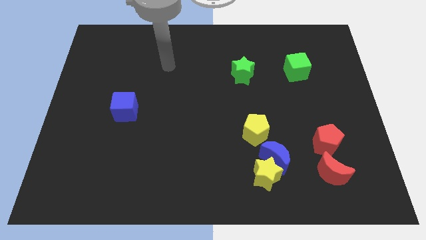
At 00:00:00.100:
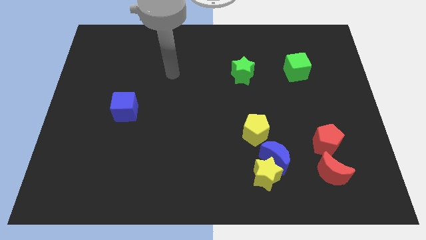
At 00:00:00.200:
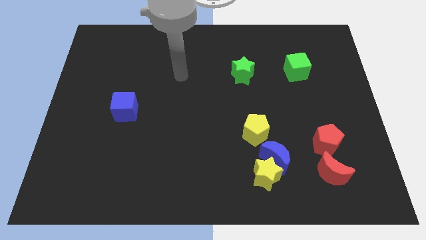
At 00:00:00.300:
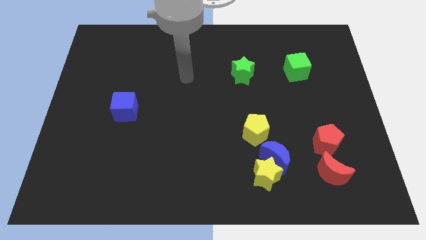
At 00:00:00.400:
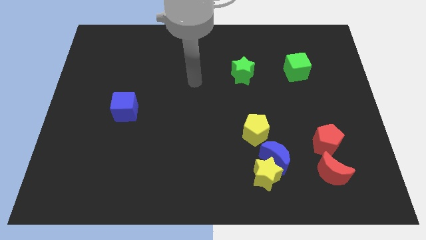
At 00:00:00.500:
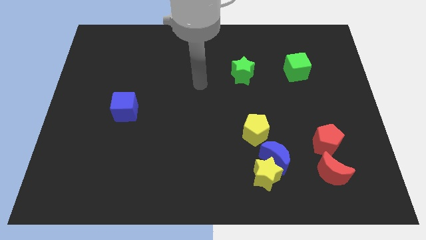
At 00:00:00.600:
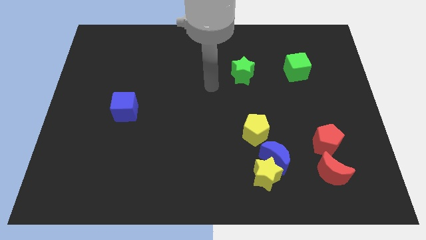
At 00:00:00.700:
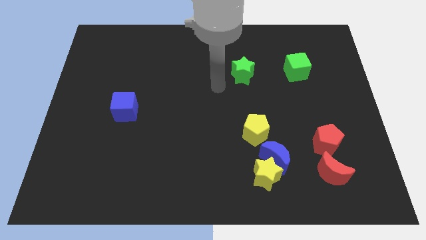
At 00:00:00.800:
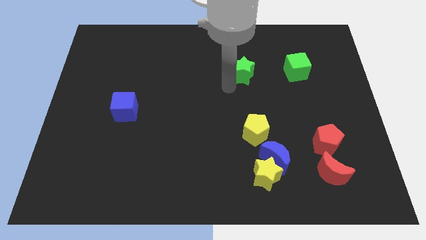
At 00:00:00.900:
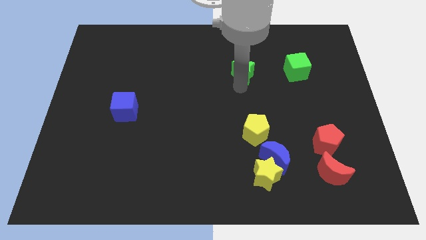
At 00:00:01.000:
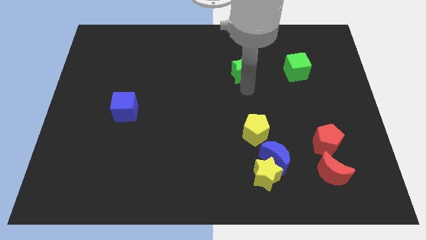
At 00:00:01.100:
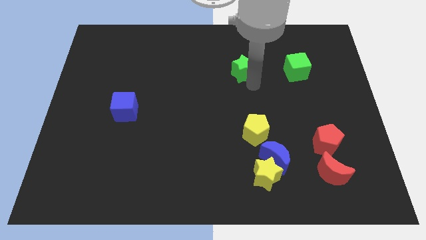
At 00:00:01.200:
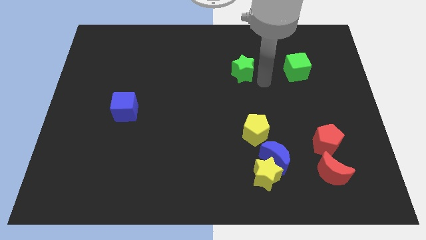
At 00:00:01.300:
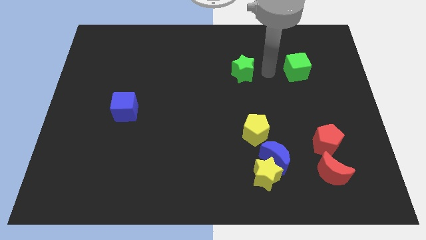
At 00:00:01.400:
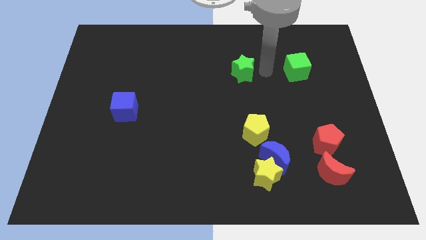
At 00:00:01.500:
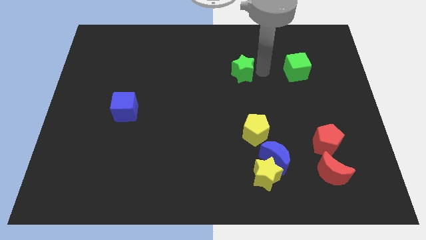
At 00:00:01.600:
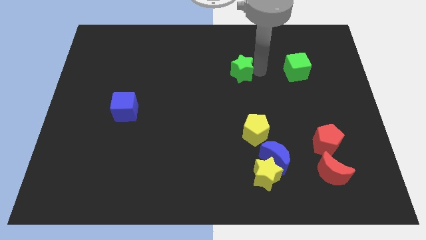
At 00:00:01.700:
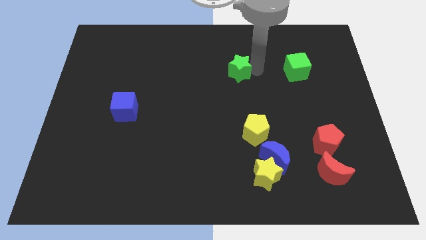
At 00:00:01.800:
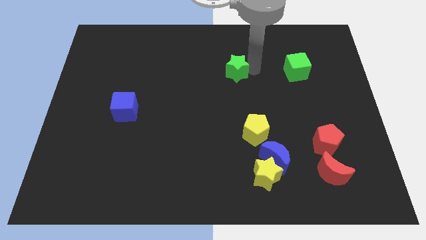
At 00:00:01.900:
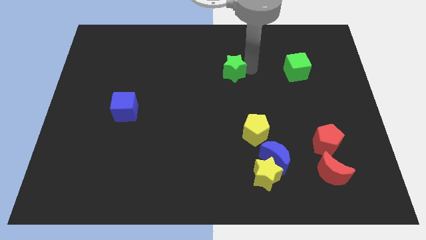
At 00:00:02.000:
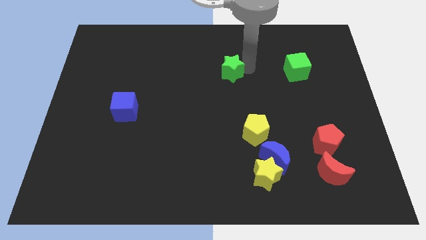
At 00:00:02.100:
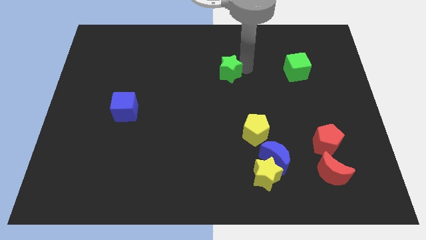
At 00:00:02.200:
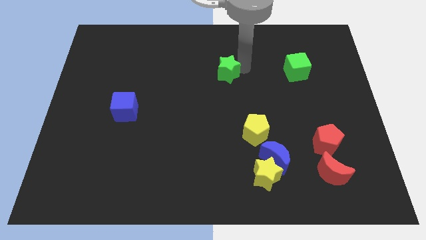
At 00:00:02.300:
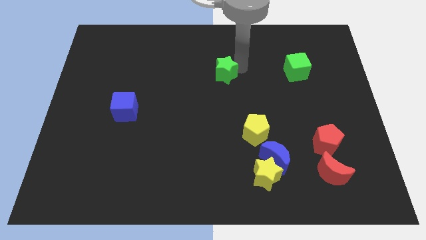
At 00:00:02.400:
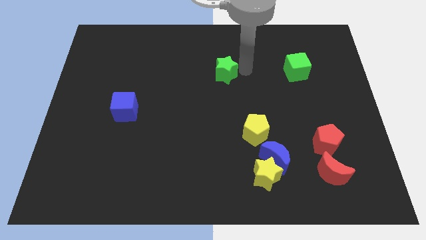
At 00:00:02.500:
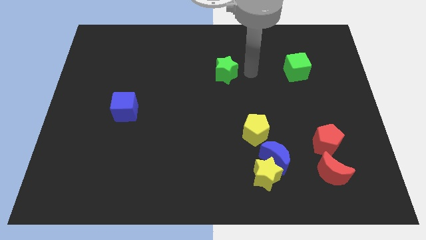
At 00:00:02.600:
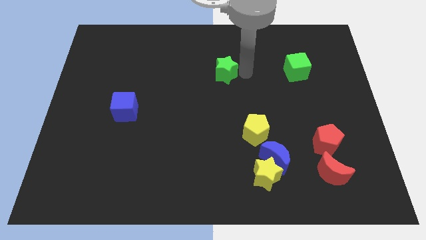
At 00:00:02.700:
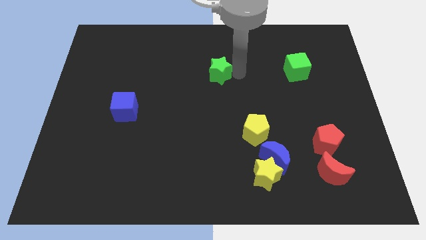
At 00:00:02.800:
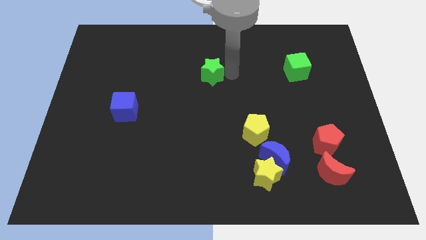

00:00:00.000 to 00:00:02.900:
slightly move the green star left

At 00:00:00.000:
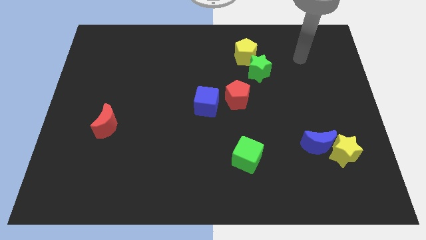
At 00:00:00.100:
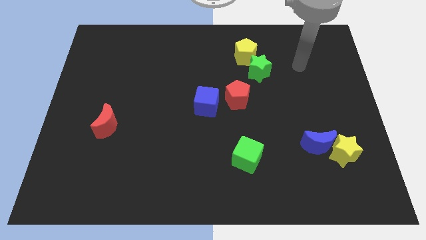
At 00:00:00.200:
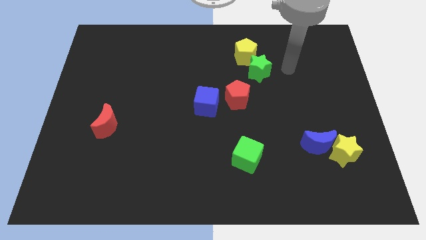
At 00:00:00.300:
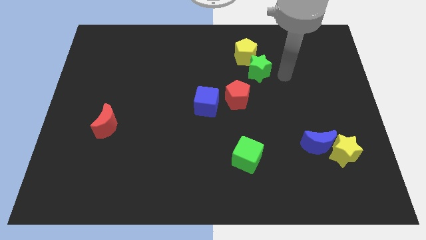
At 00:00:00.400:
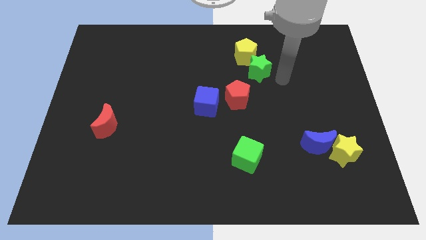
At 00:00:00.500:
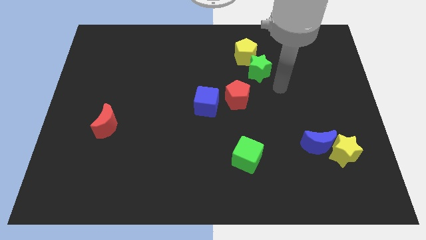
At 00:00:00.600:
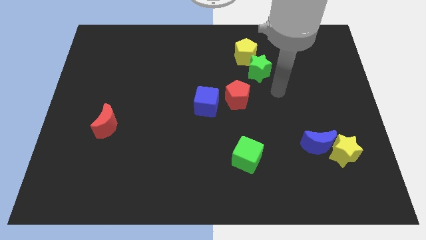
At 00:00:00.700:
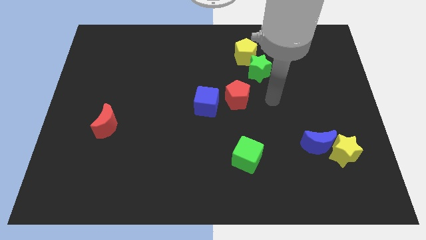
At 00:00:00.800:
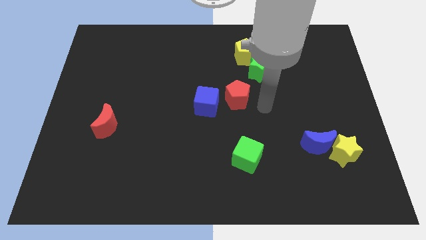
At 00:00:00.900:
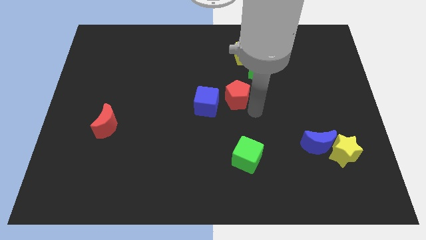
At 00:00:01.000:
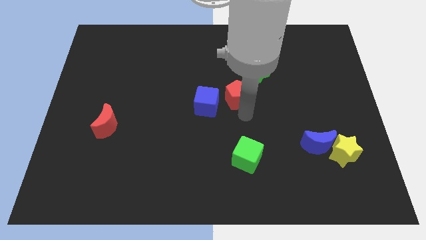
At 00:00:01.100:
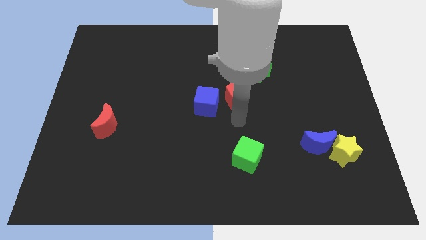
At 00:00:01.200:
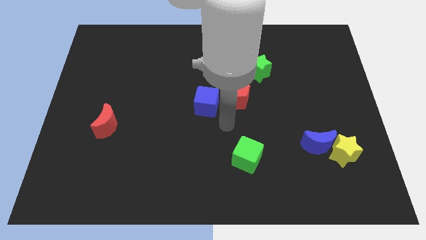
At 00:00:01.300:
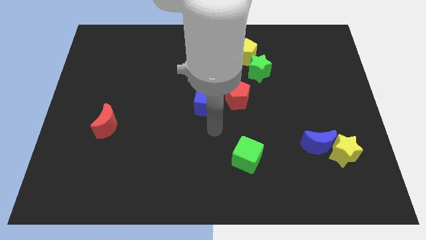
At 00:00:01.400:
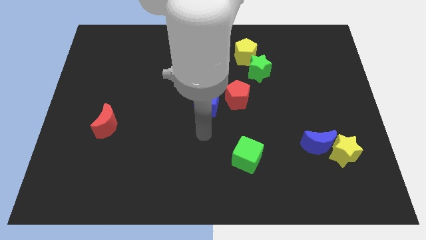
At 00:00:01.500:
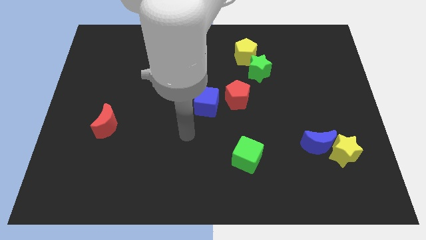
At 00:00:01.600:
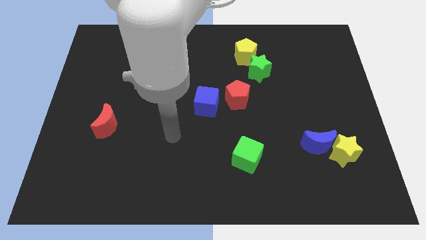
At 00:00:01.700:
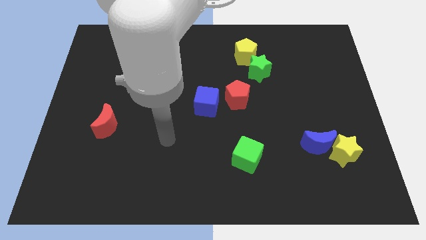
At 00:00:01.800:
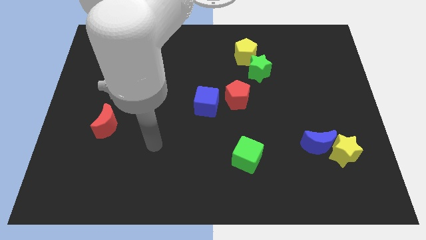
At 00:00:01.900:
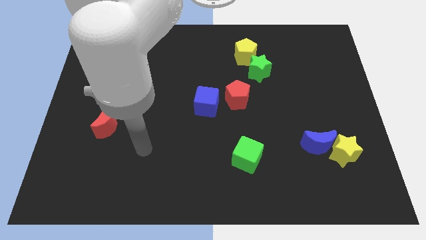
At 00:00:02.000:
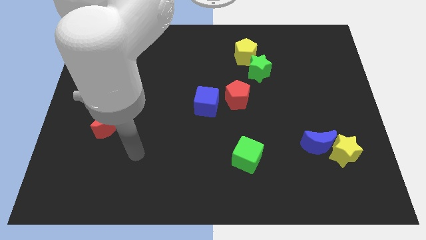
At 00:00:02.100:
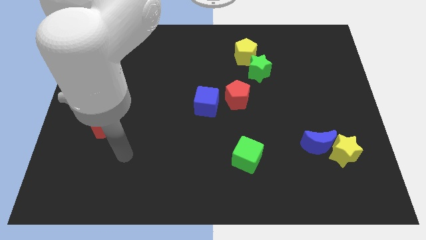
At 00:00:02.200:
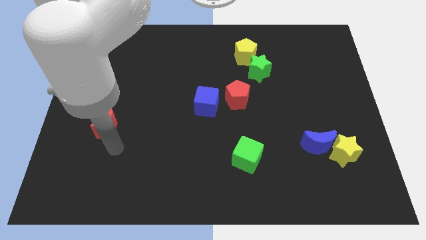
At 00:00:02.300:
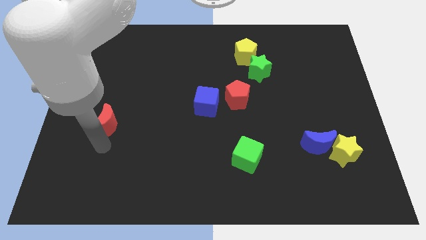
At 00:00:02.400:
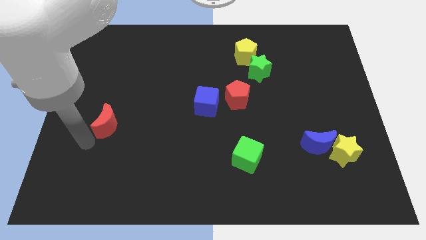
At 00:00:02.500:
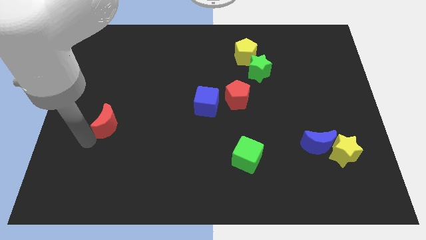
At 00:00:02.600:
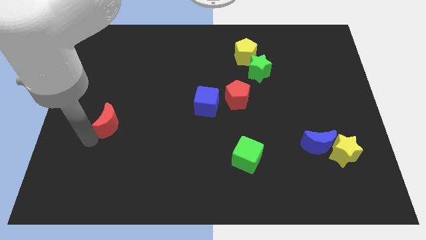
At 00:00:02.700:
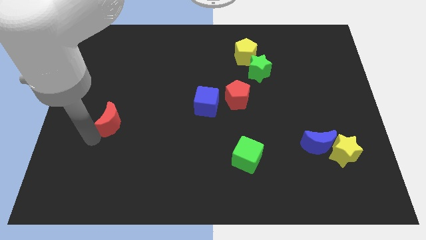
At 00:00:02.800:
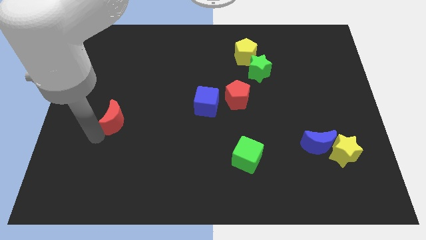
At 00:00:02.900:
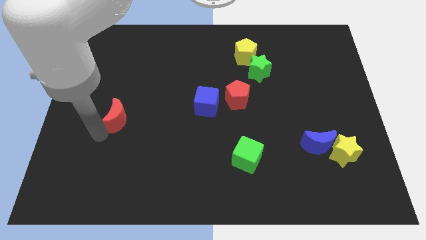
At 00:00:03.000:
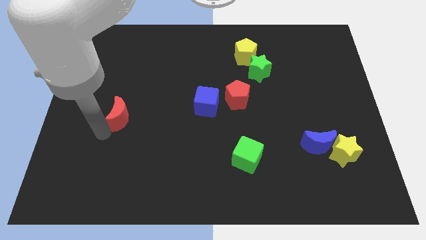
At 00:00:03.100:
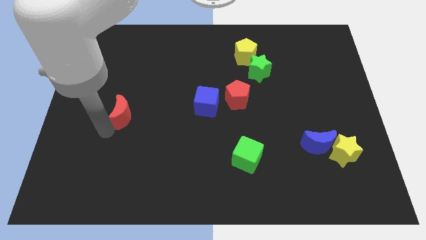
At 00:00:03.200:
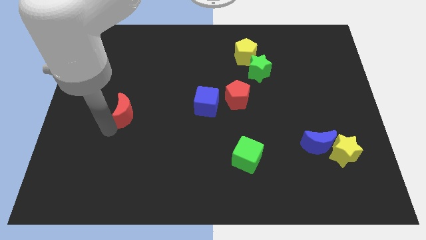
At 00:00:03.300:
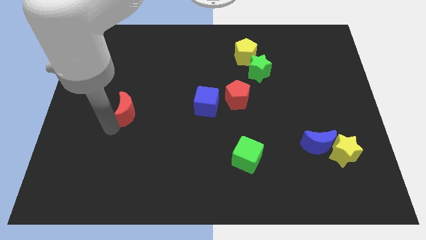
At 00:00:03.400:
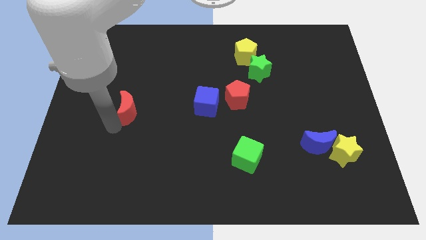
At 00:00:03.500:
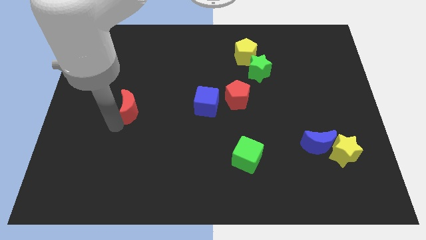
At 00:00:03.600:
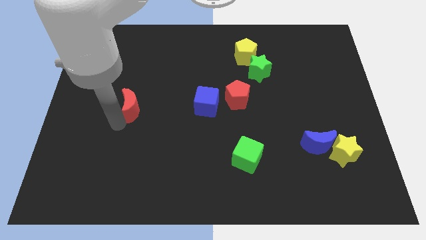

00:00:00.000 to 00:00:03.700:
move the red moon slightly diagonally upwards and to the right

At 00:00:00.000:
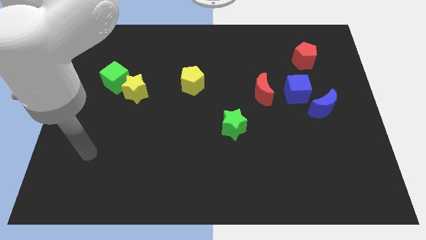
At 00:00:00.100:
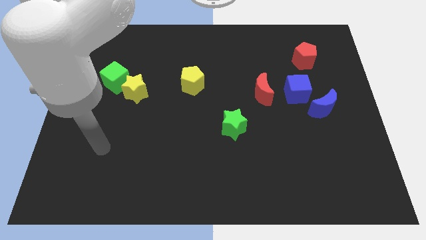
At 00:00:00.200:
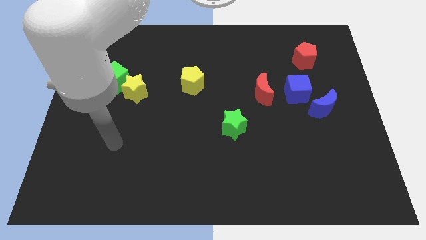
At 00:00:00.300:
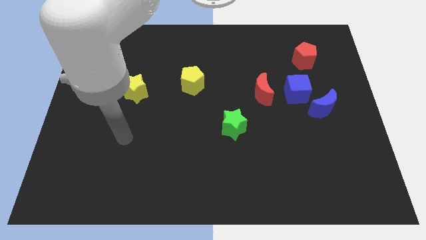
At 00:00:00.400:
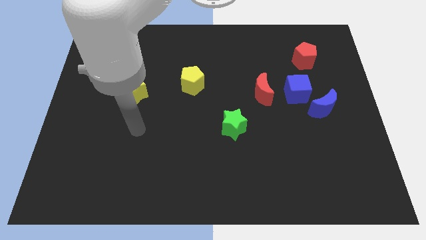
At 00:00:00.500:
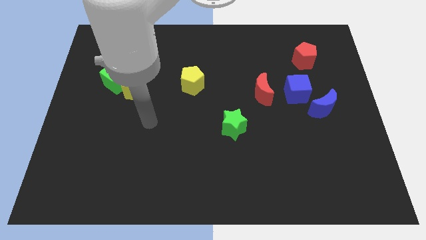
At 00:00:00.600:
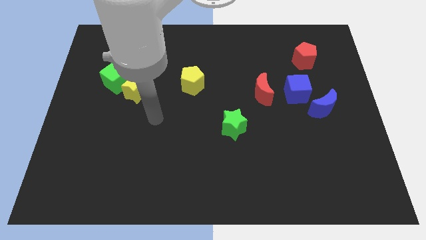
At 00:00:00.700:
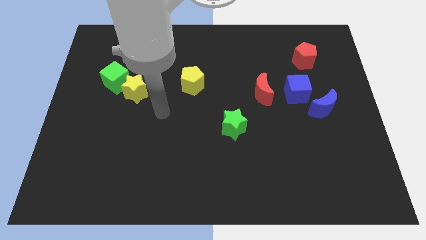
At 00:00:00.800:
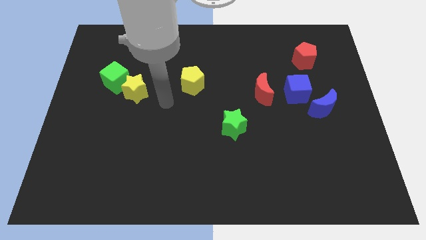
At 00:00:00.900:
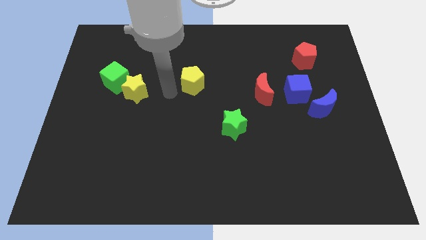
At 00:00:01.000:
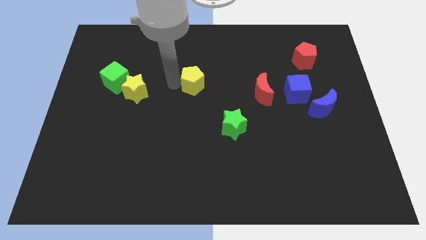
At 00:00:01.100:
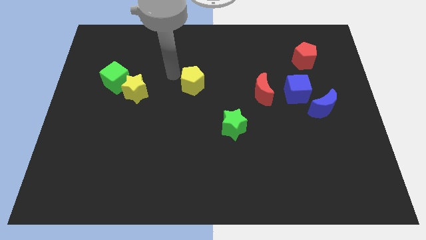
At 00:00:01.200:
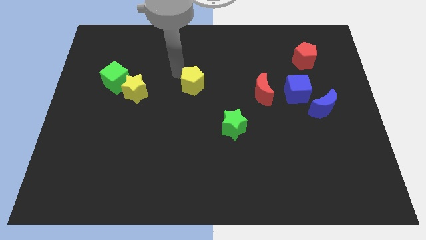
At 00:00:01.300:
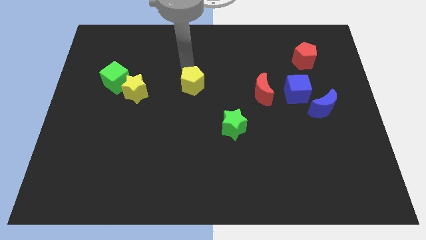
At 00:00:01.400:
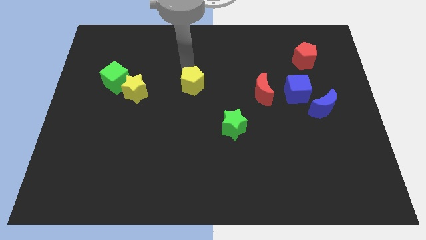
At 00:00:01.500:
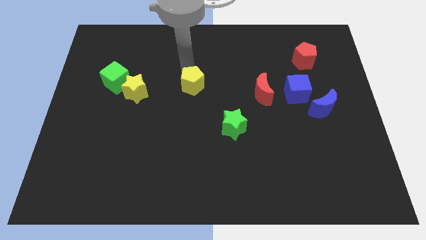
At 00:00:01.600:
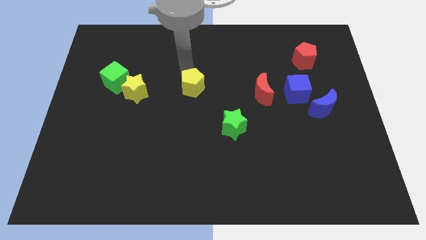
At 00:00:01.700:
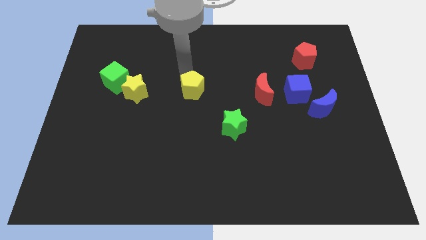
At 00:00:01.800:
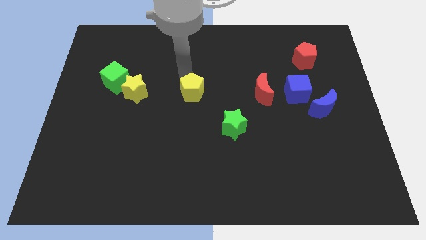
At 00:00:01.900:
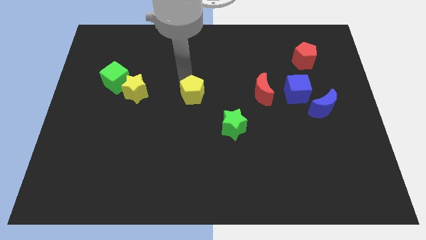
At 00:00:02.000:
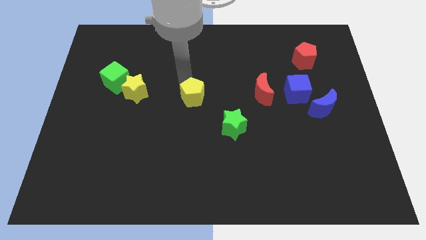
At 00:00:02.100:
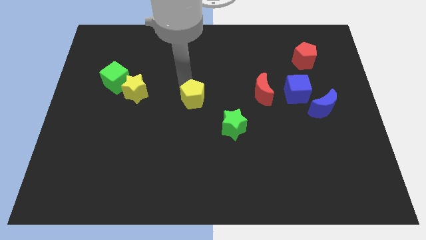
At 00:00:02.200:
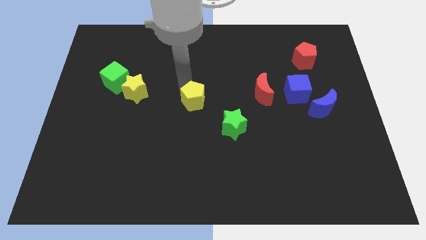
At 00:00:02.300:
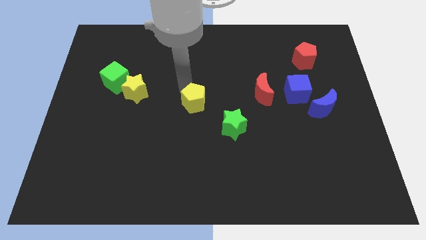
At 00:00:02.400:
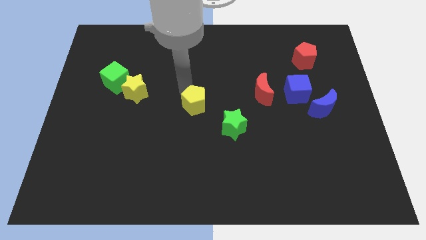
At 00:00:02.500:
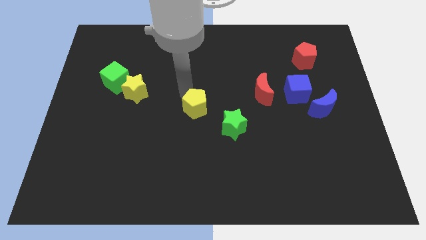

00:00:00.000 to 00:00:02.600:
slightly slide the yellow pentagon down
